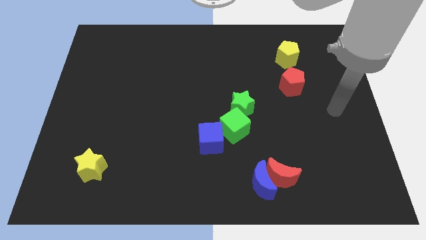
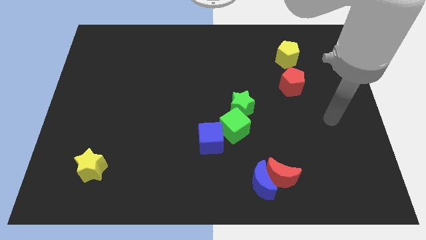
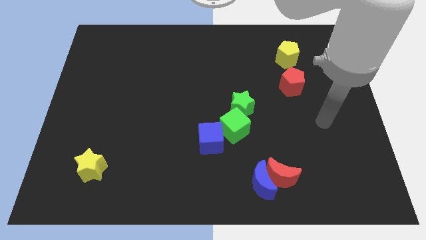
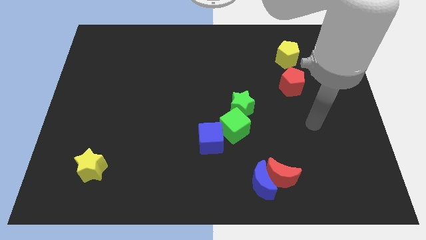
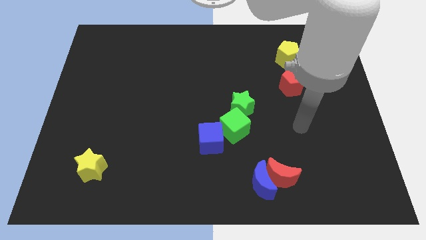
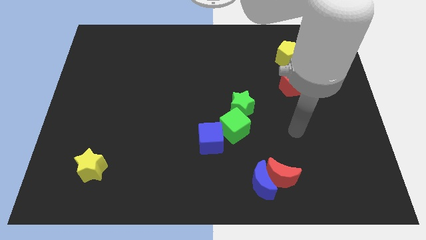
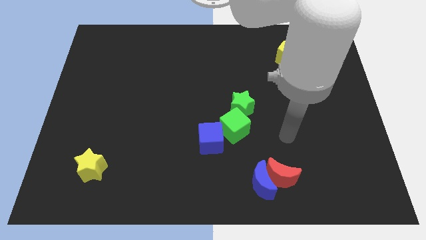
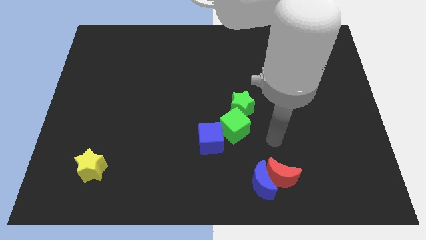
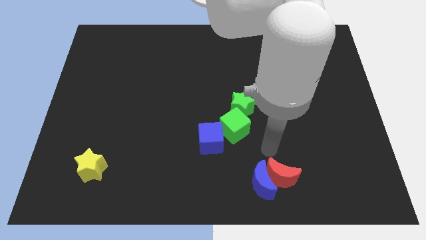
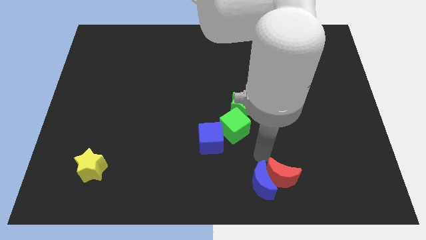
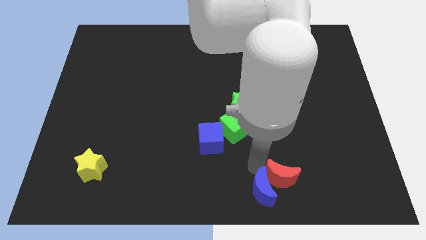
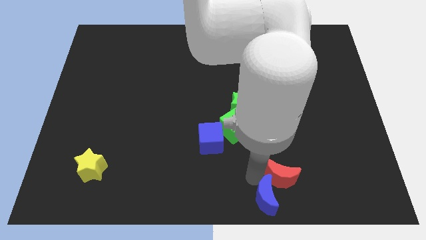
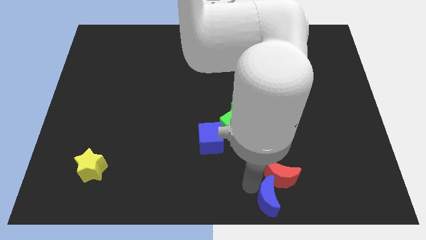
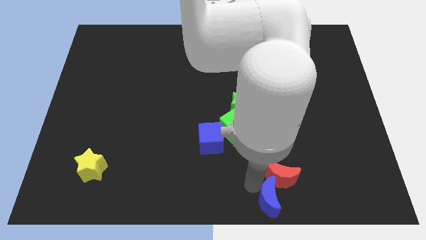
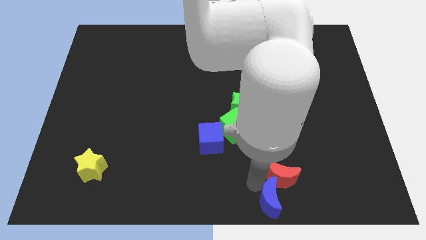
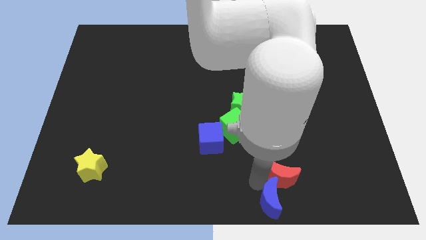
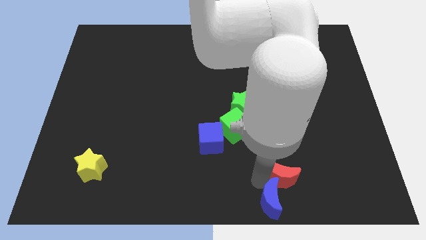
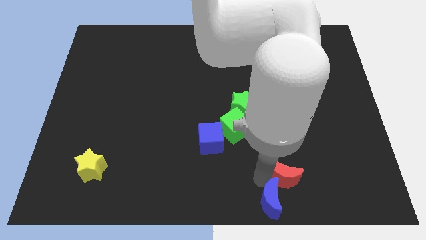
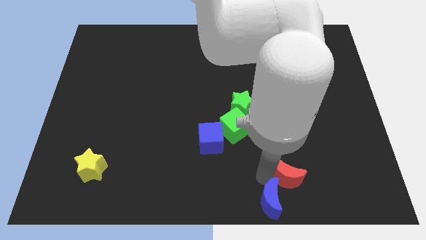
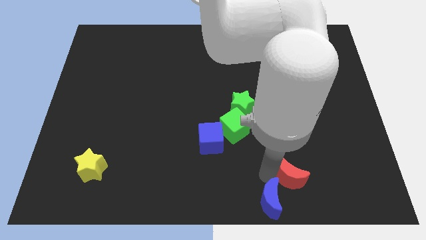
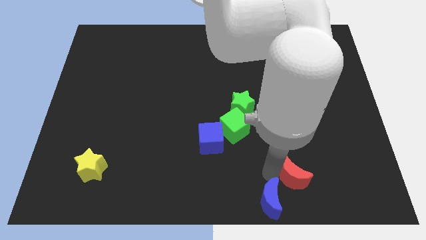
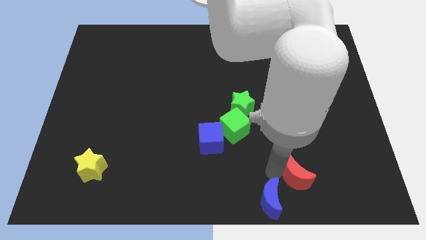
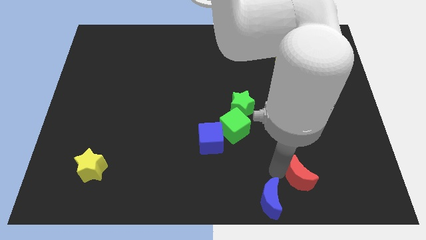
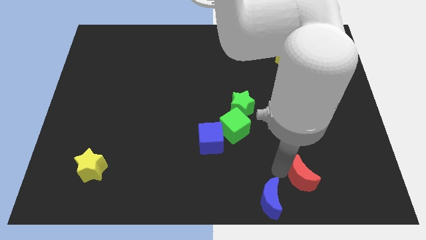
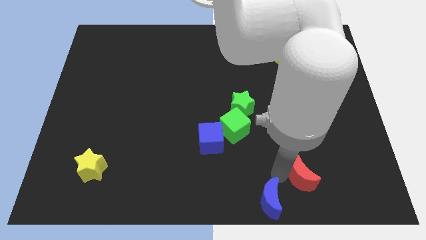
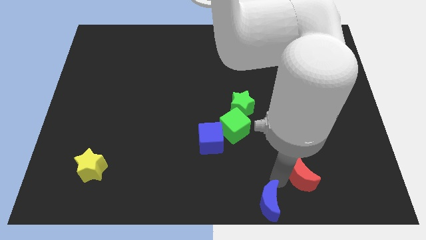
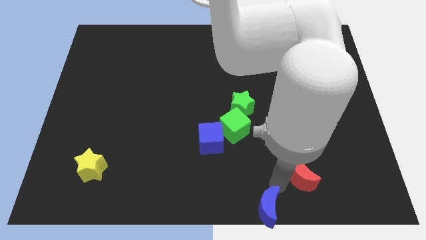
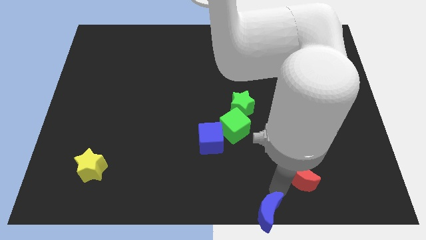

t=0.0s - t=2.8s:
move the red moon away from the blue moon

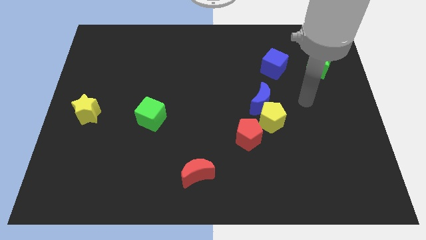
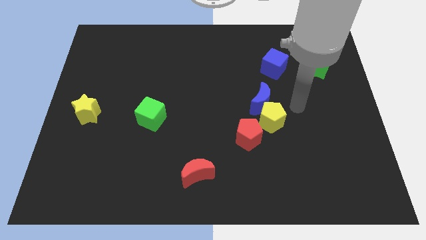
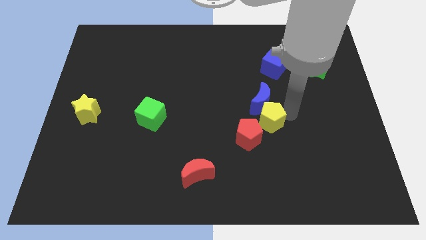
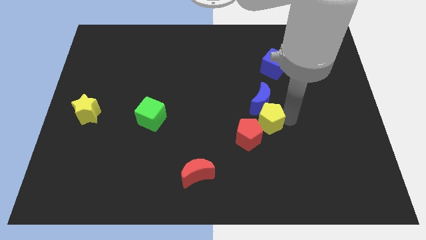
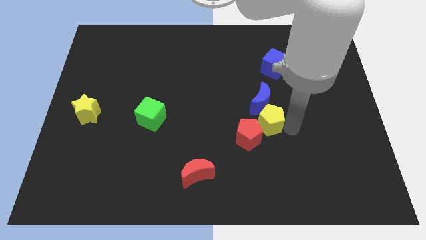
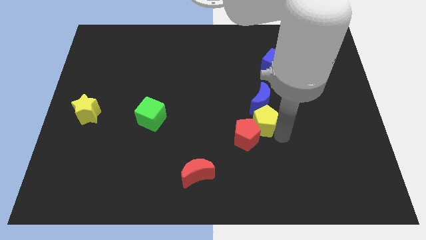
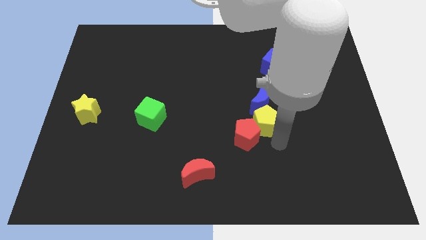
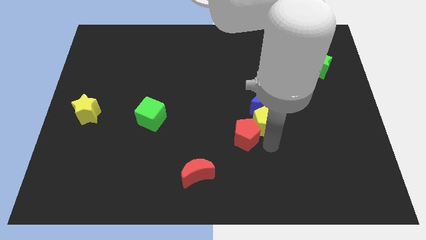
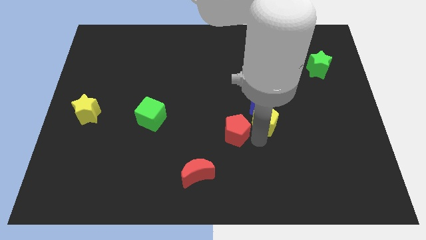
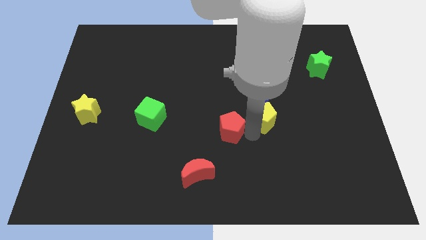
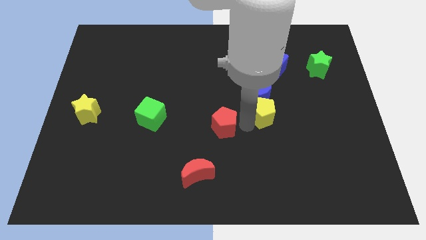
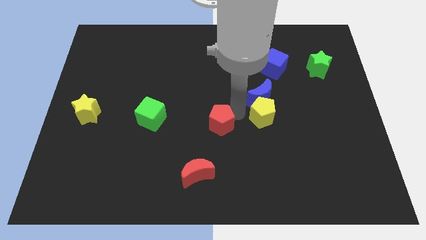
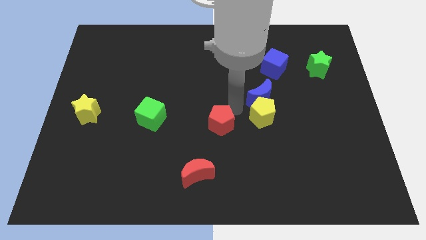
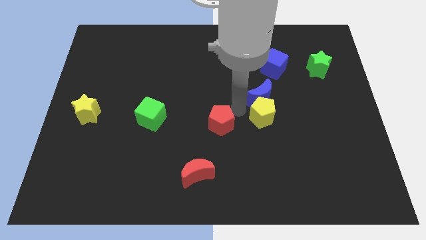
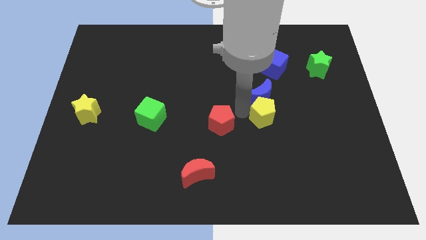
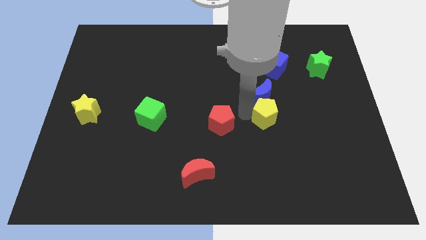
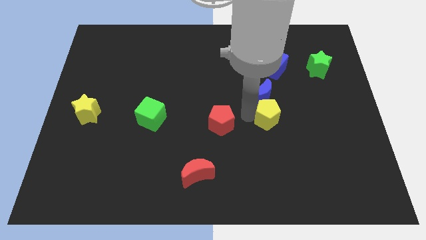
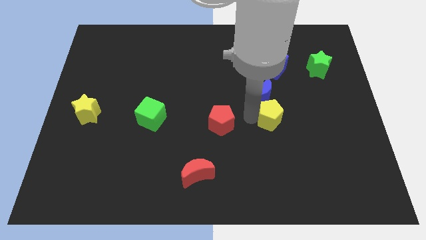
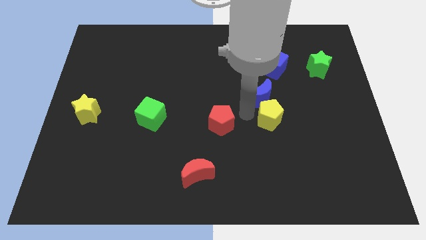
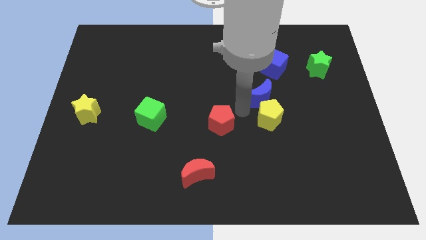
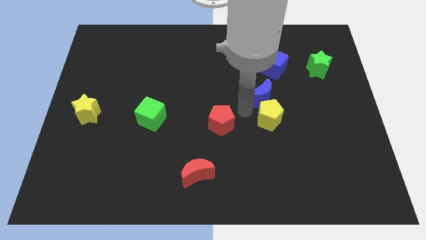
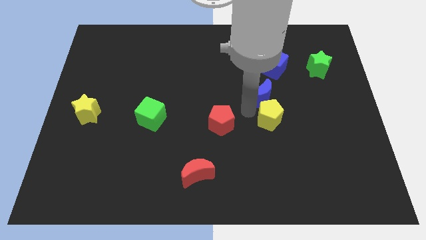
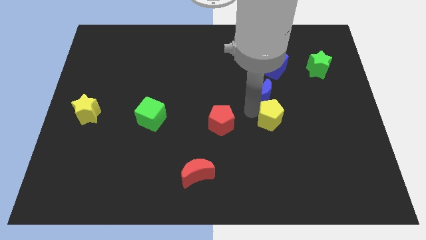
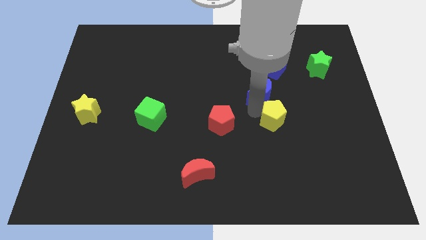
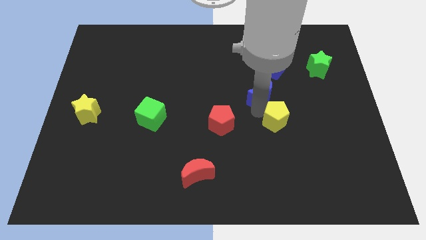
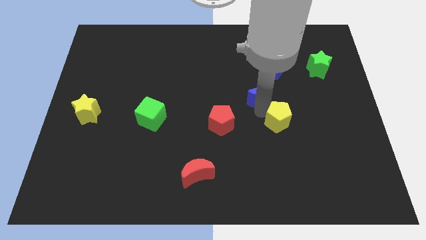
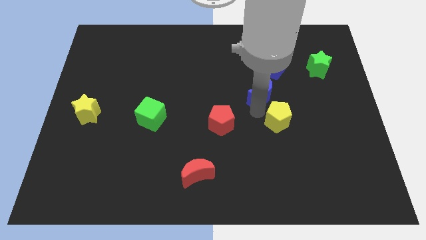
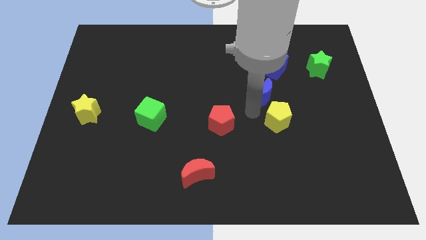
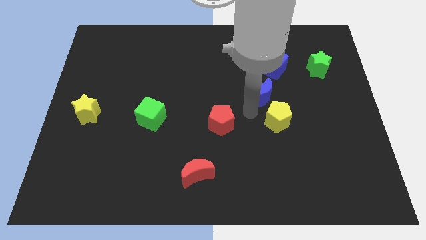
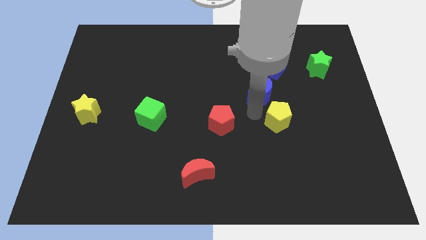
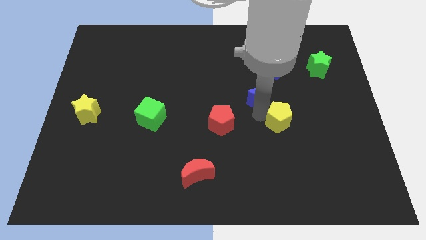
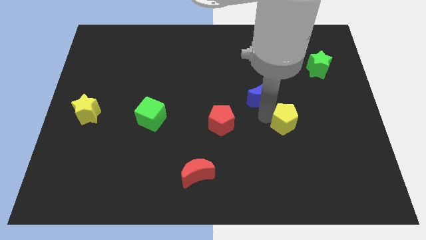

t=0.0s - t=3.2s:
move the yellow pentagon away from the blue moon and red pentagon

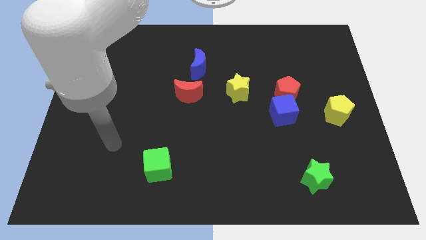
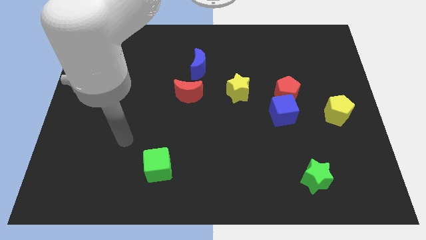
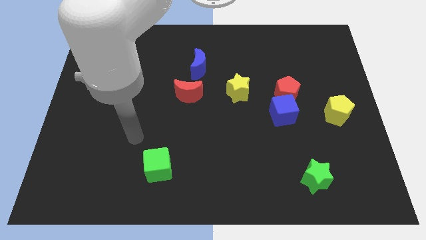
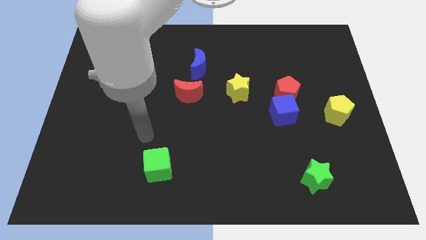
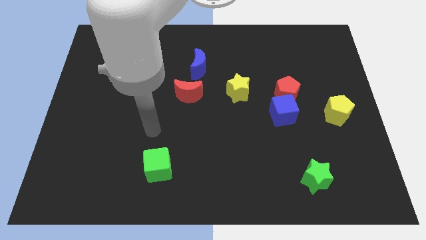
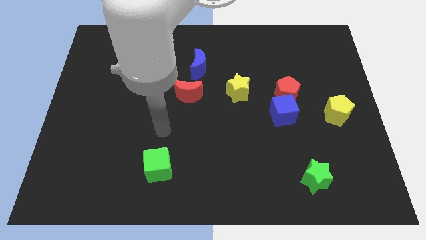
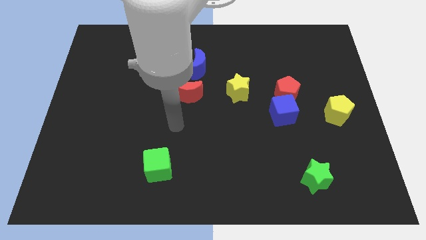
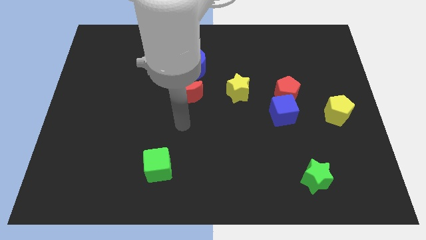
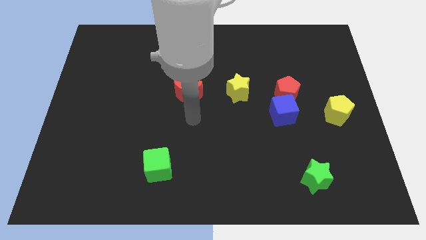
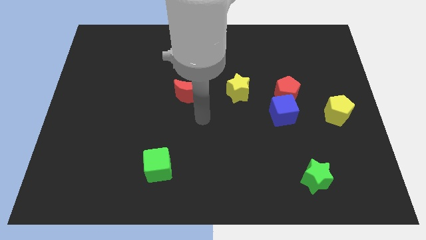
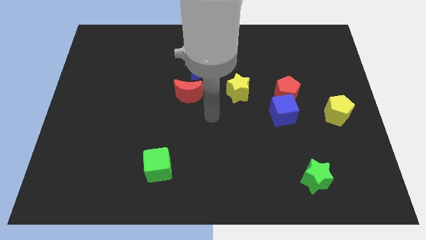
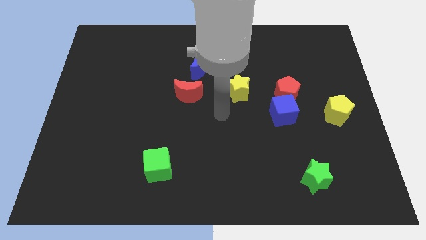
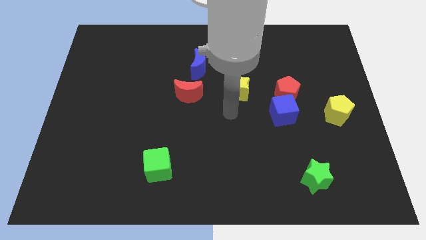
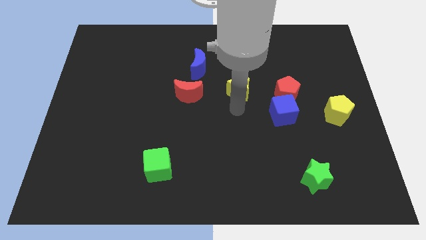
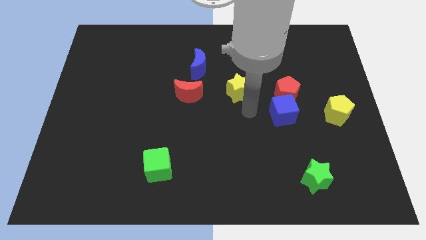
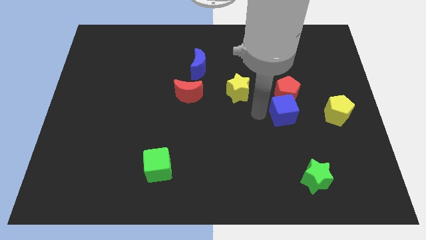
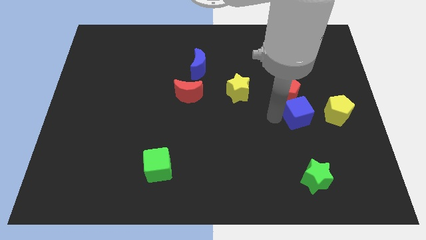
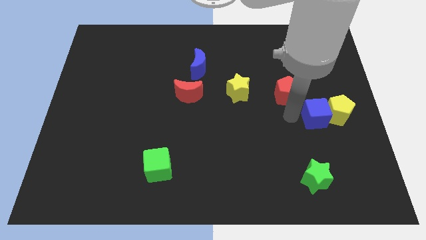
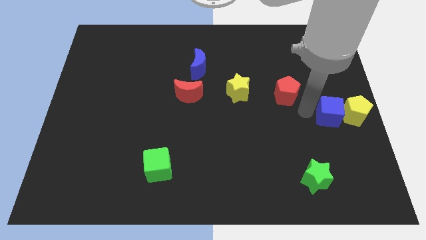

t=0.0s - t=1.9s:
move the red pentagon away from the blue cube

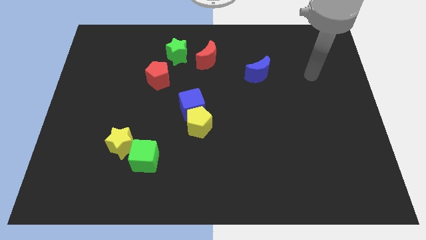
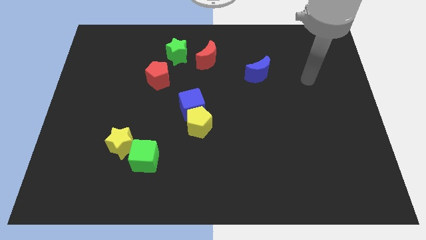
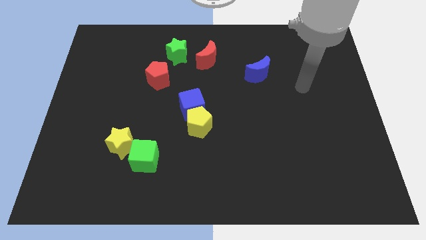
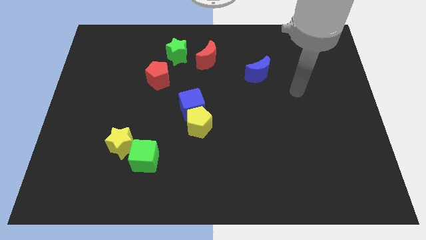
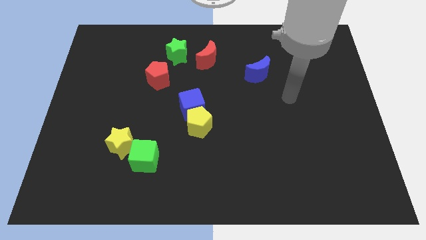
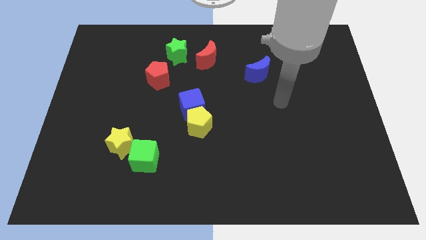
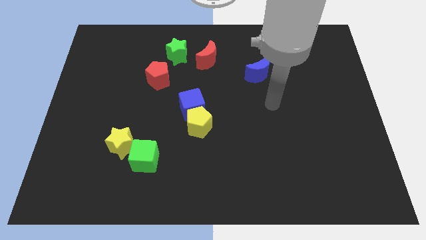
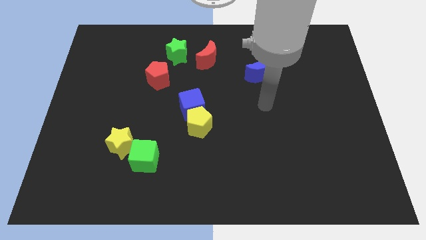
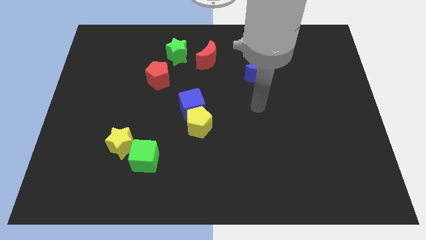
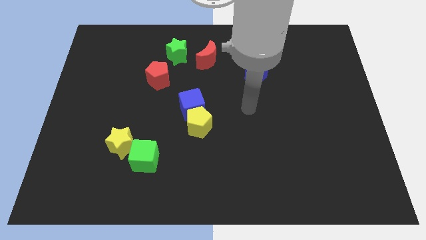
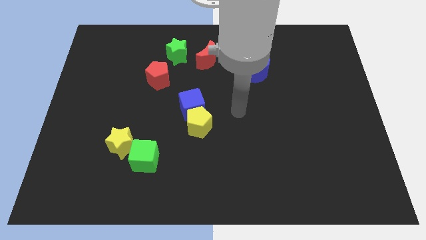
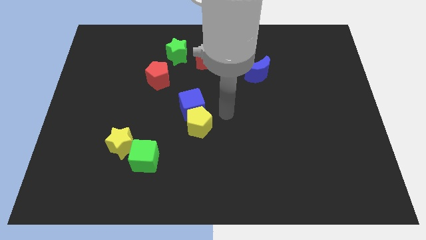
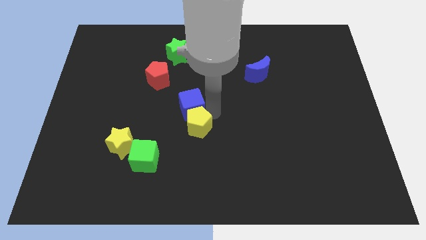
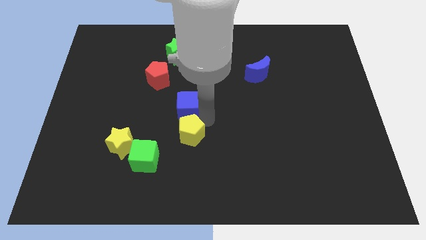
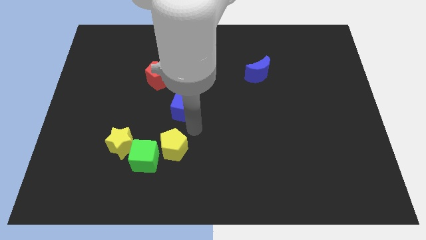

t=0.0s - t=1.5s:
separate the blue cube from the yellow pentagon
